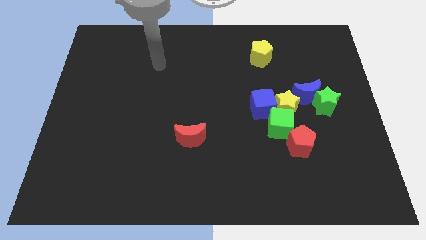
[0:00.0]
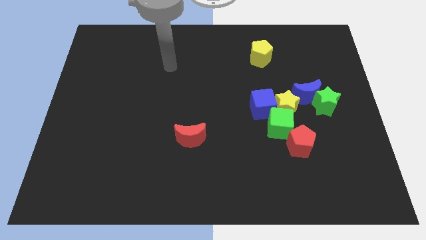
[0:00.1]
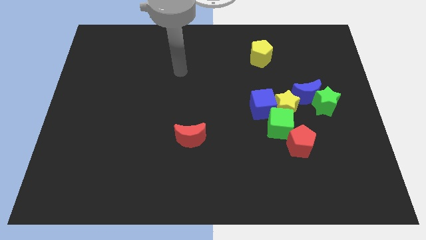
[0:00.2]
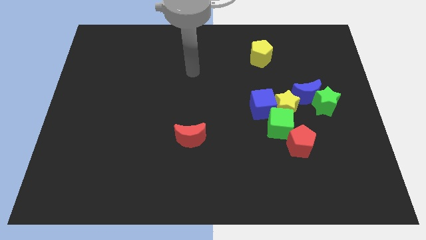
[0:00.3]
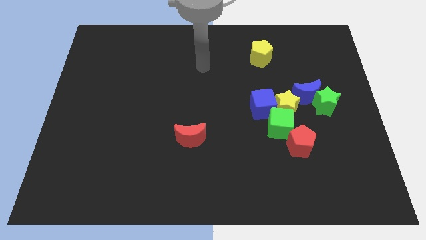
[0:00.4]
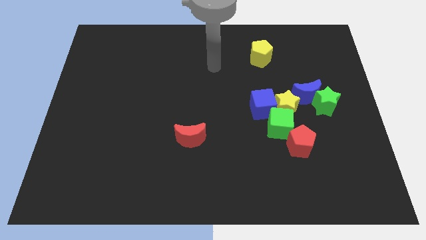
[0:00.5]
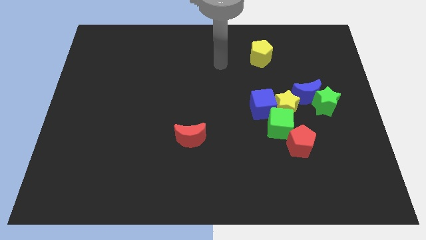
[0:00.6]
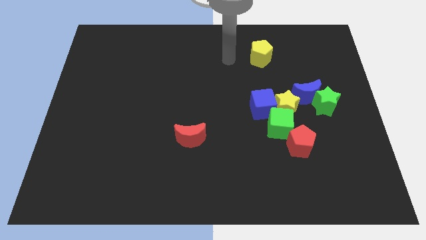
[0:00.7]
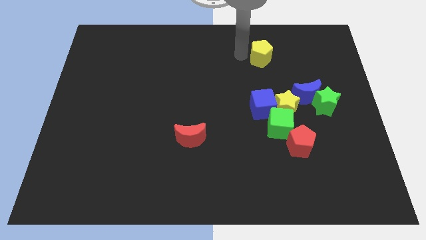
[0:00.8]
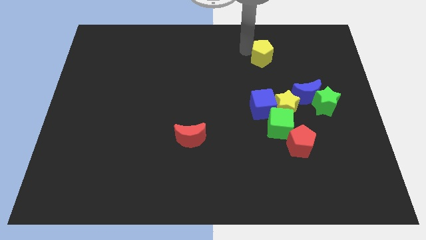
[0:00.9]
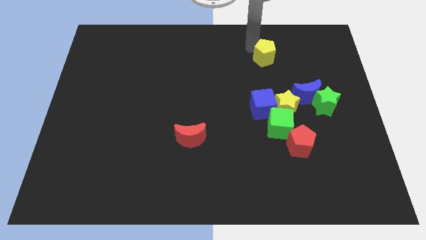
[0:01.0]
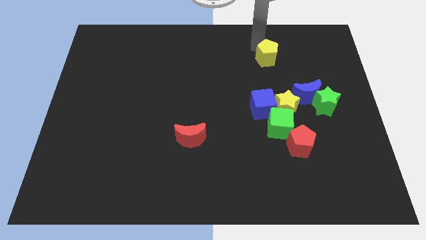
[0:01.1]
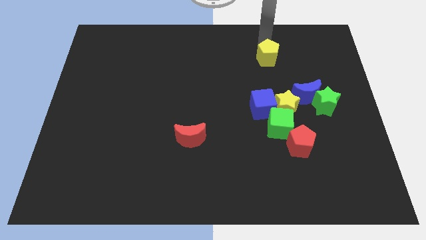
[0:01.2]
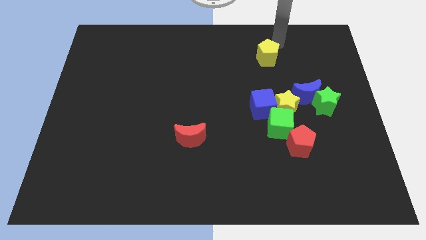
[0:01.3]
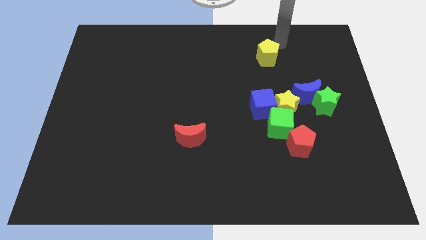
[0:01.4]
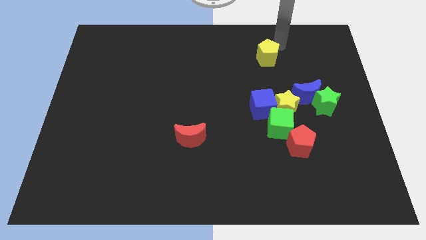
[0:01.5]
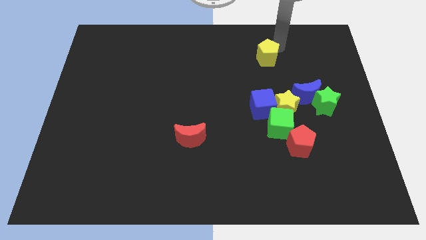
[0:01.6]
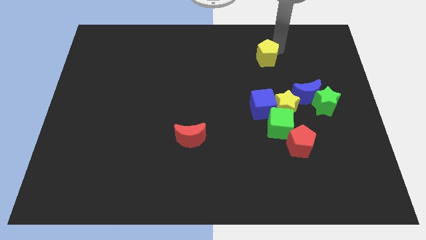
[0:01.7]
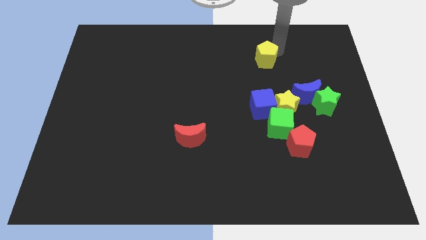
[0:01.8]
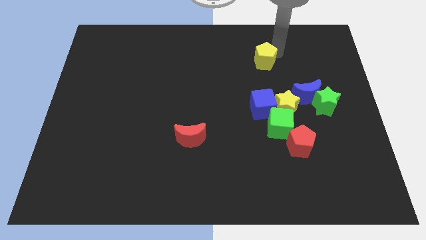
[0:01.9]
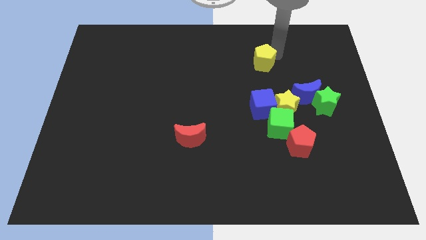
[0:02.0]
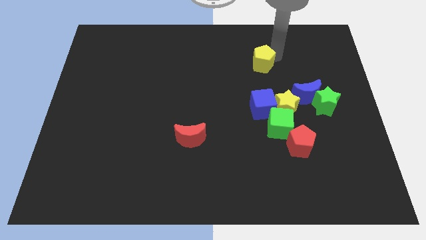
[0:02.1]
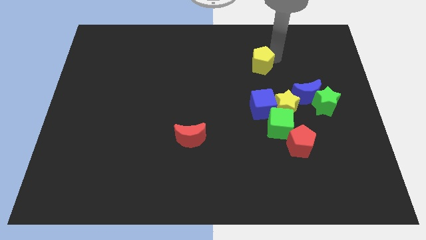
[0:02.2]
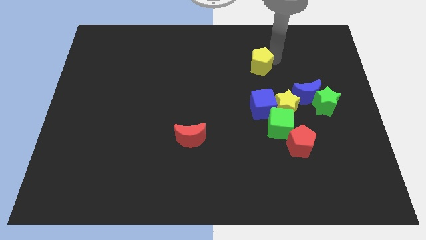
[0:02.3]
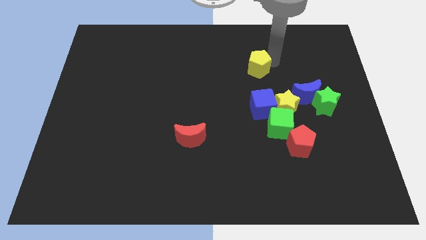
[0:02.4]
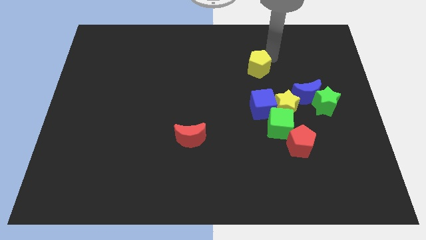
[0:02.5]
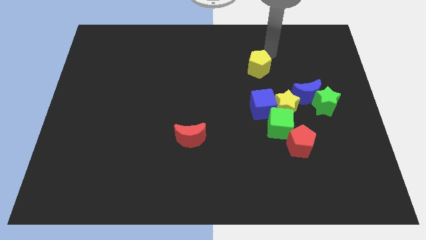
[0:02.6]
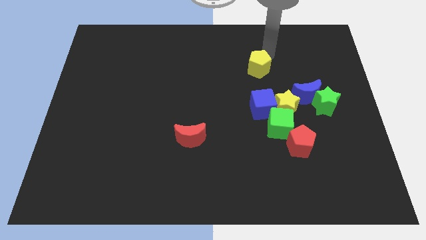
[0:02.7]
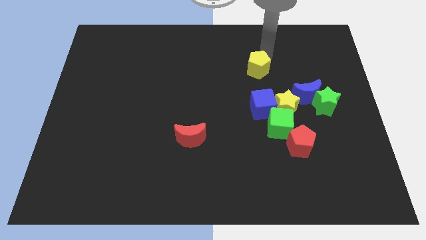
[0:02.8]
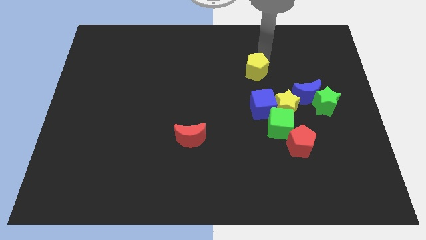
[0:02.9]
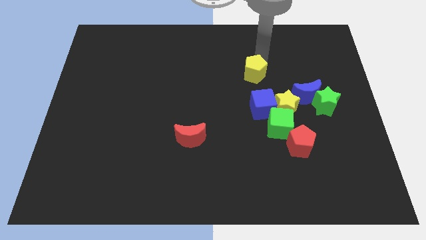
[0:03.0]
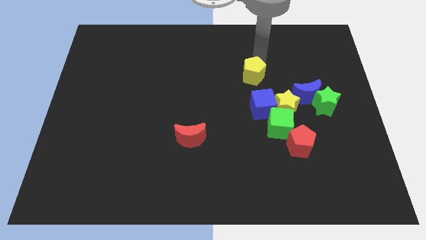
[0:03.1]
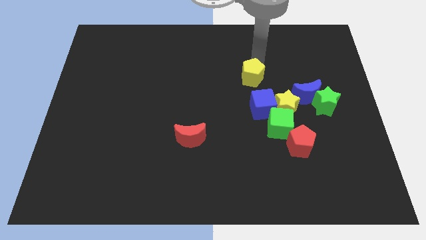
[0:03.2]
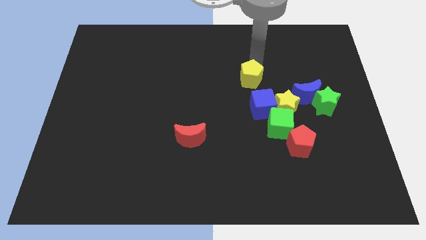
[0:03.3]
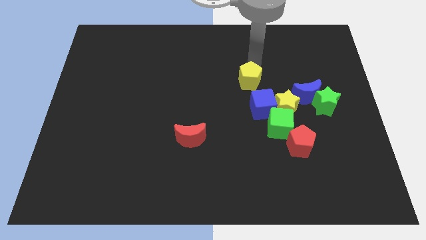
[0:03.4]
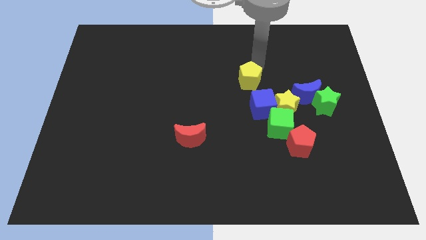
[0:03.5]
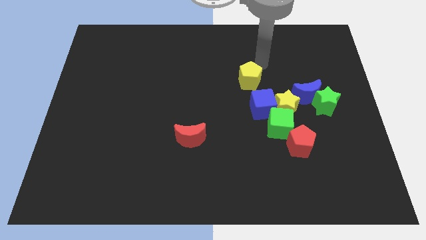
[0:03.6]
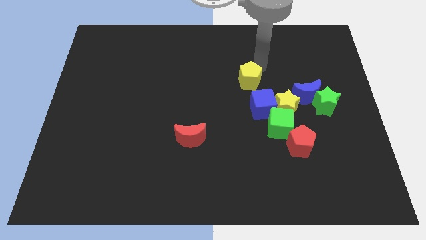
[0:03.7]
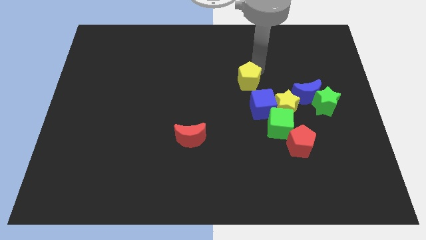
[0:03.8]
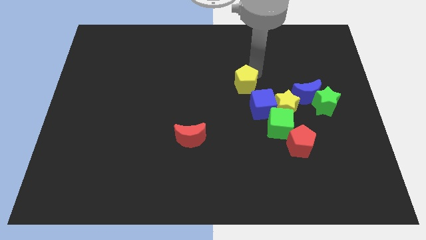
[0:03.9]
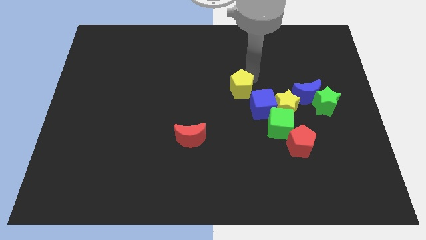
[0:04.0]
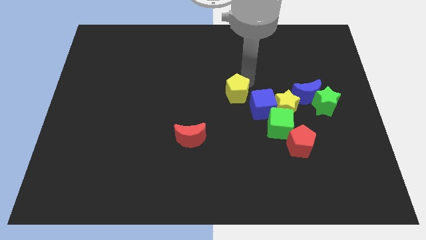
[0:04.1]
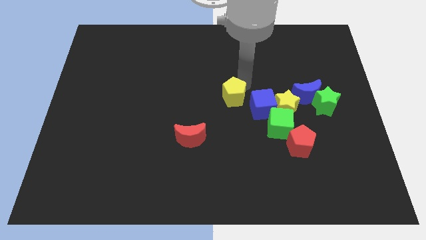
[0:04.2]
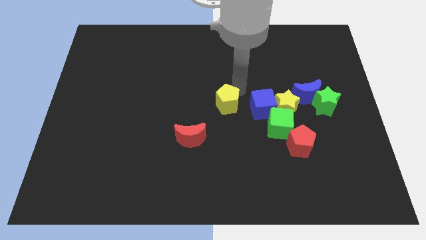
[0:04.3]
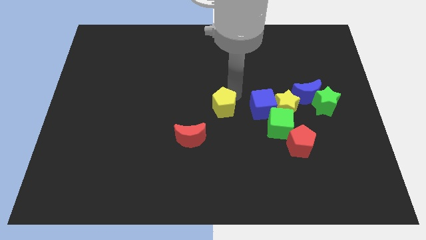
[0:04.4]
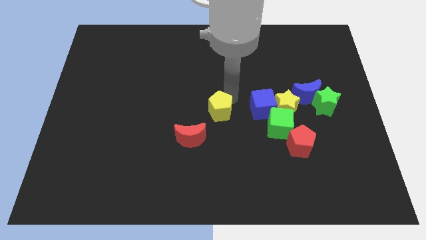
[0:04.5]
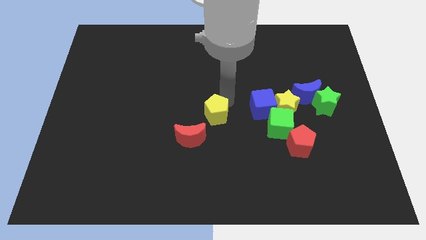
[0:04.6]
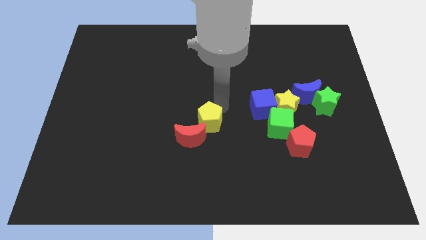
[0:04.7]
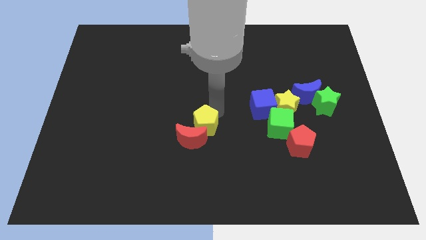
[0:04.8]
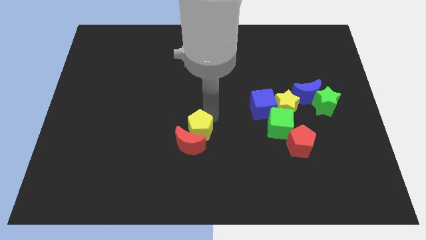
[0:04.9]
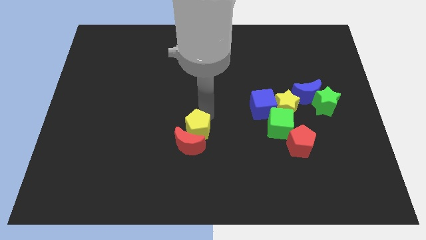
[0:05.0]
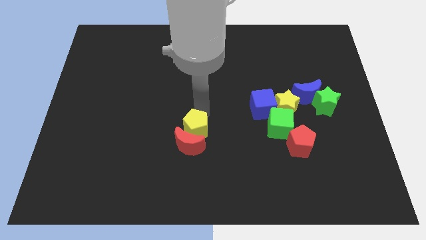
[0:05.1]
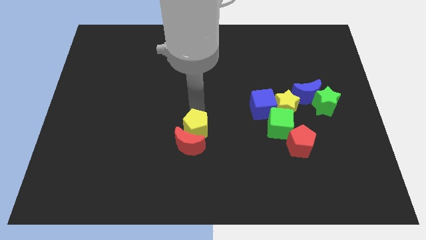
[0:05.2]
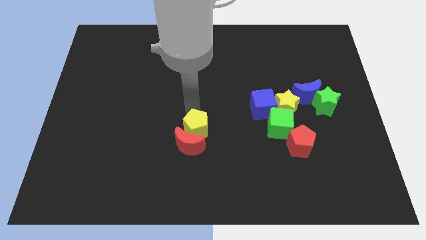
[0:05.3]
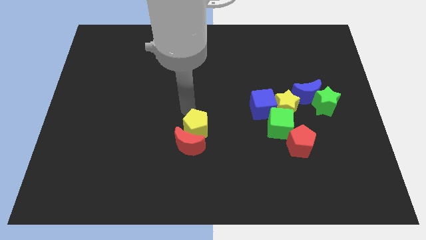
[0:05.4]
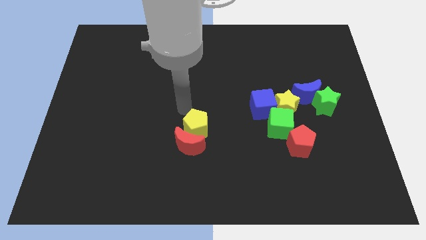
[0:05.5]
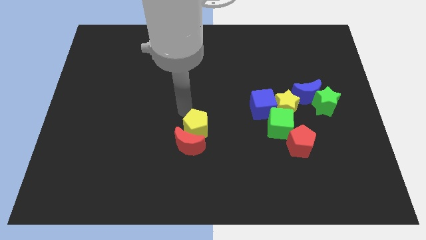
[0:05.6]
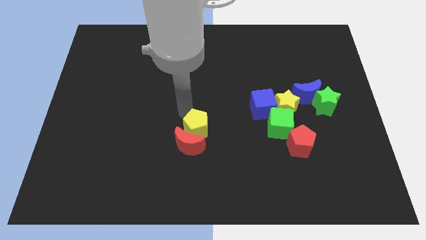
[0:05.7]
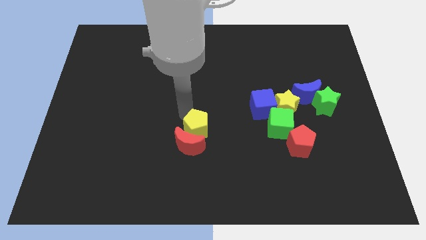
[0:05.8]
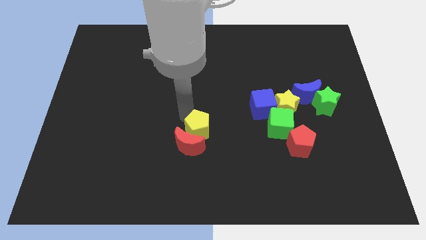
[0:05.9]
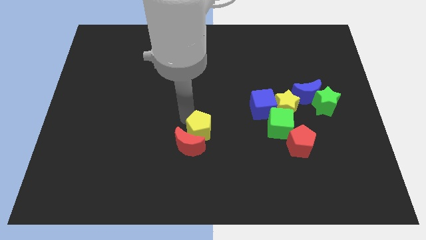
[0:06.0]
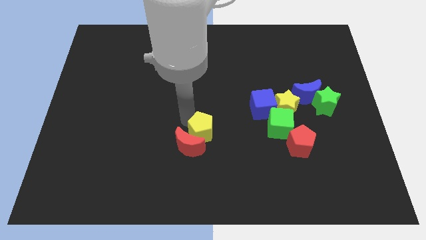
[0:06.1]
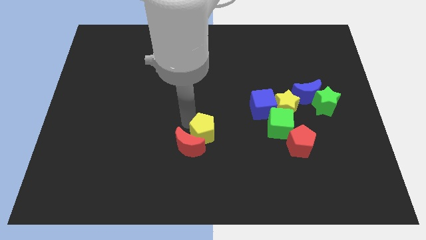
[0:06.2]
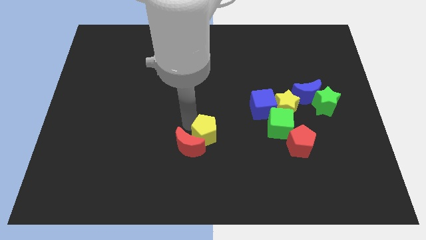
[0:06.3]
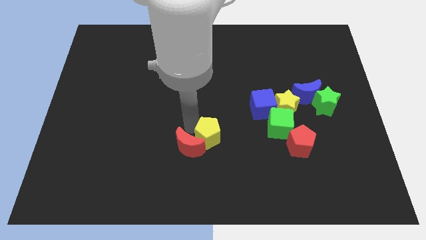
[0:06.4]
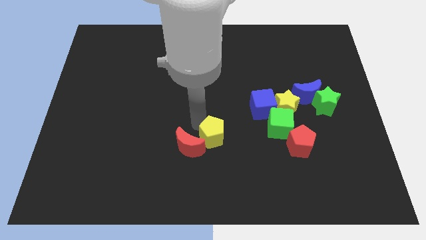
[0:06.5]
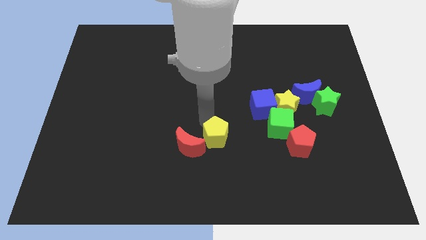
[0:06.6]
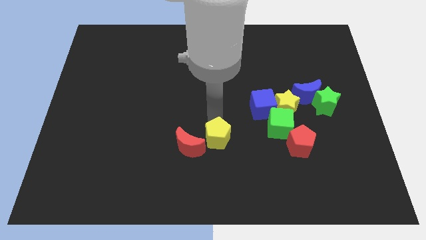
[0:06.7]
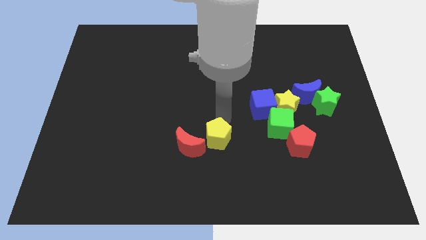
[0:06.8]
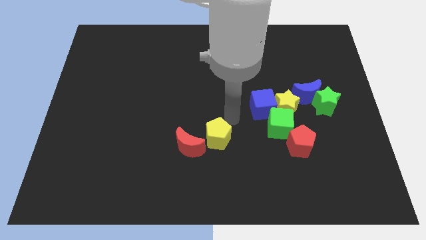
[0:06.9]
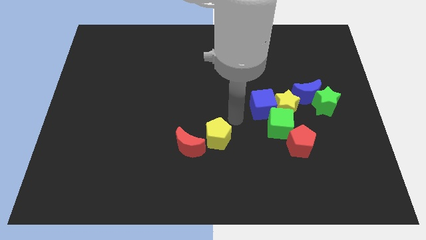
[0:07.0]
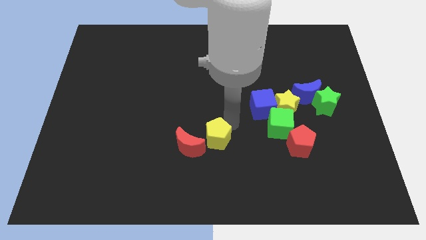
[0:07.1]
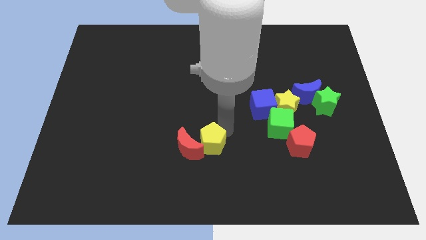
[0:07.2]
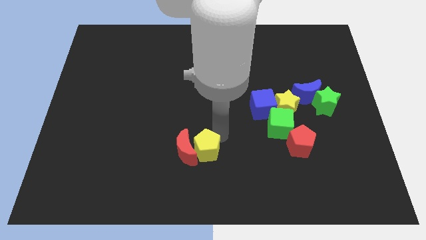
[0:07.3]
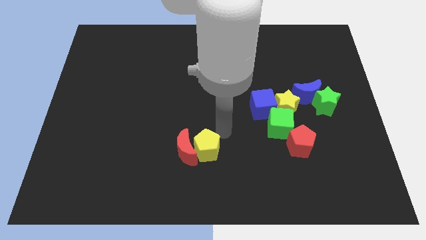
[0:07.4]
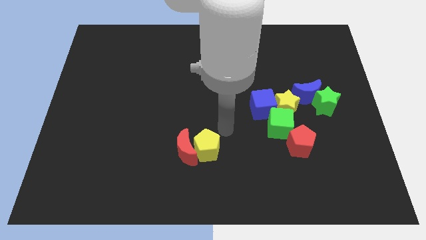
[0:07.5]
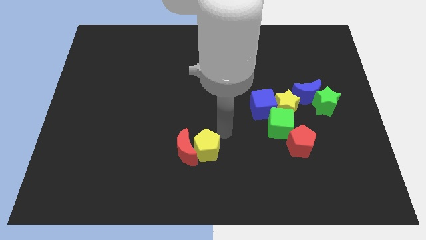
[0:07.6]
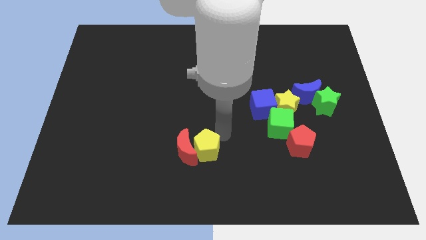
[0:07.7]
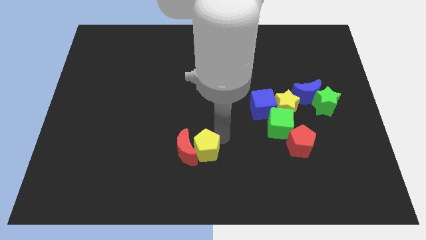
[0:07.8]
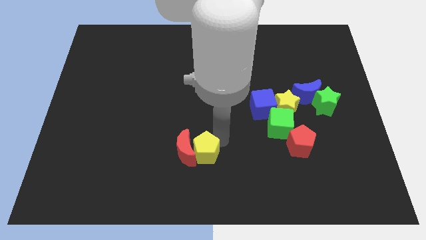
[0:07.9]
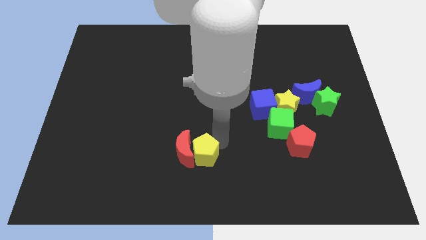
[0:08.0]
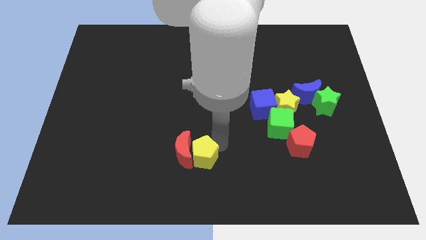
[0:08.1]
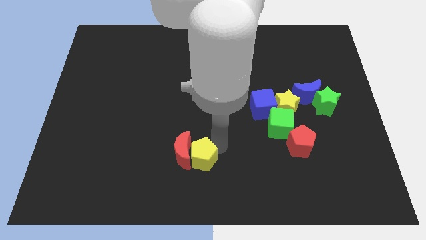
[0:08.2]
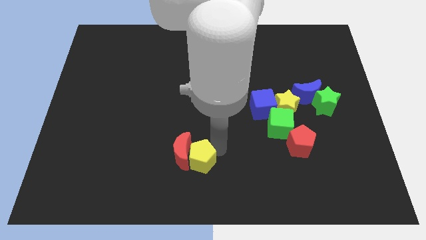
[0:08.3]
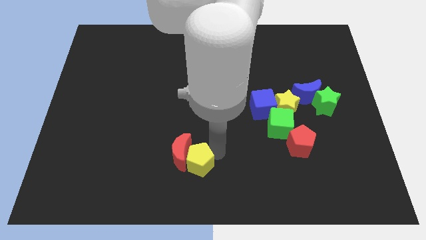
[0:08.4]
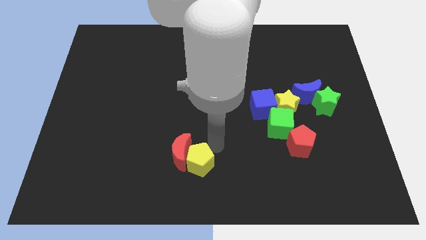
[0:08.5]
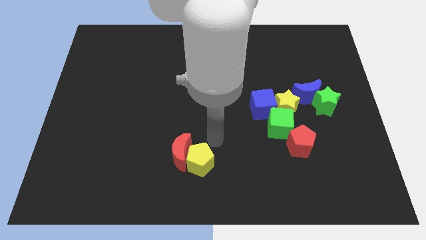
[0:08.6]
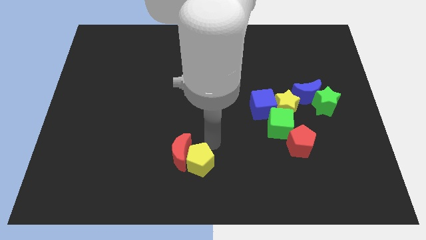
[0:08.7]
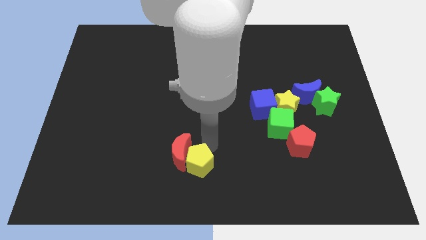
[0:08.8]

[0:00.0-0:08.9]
push the yellow pentagon below the red moon
